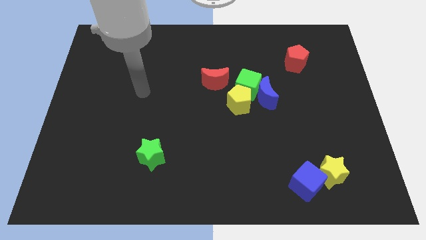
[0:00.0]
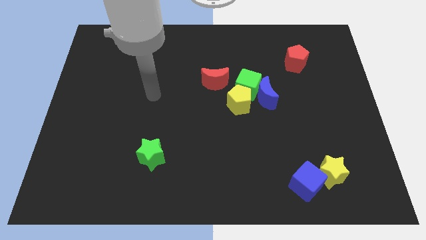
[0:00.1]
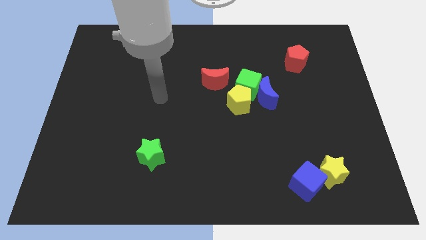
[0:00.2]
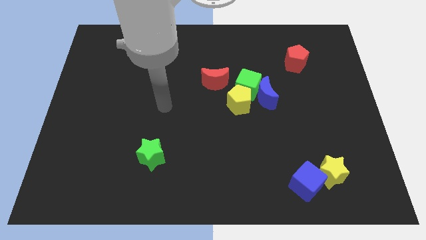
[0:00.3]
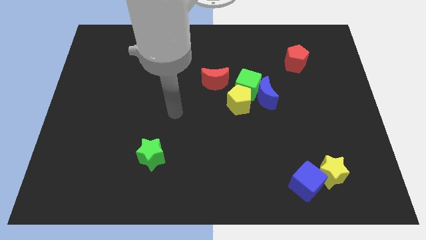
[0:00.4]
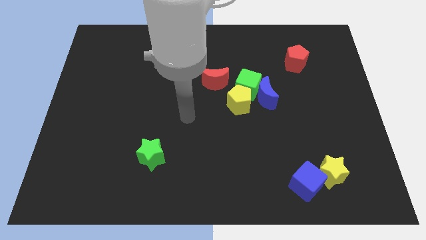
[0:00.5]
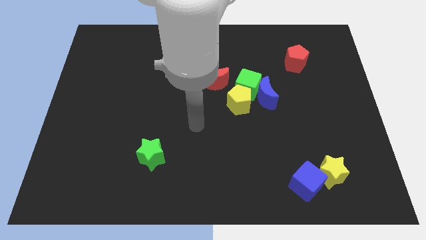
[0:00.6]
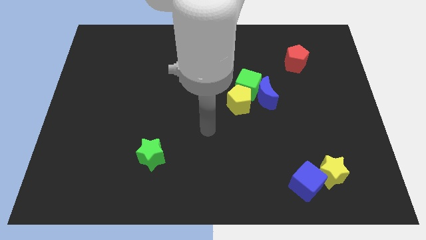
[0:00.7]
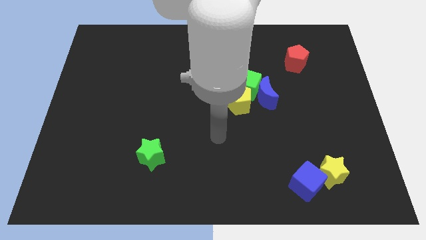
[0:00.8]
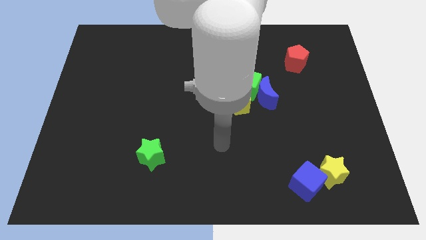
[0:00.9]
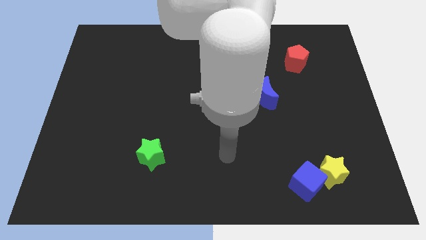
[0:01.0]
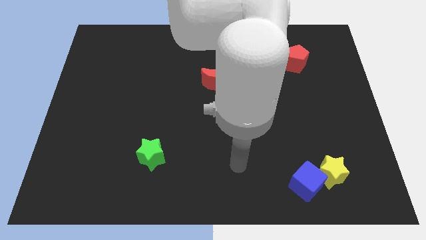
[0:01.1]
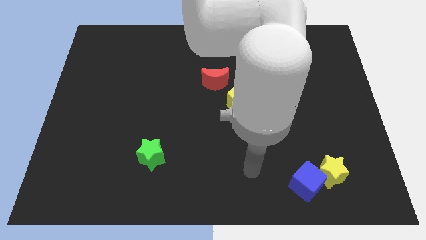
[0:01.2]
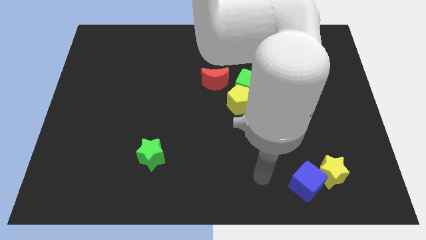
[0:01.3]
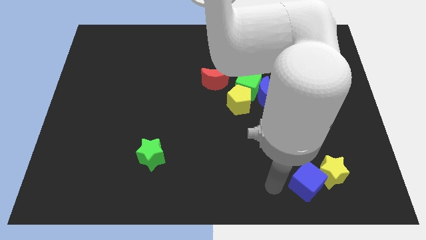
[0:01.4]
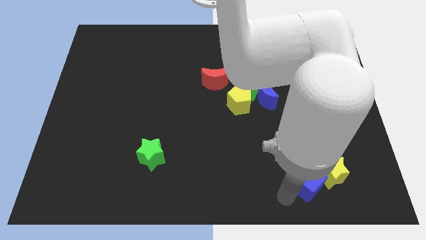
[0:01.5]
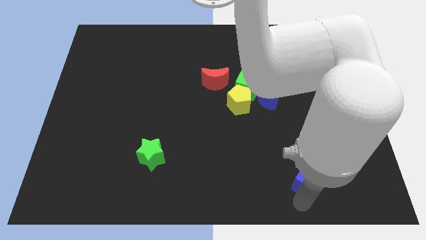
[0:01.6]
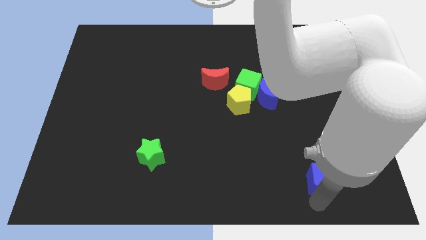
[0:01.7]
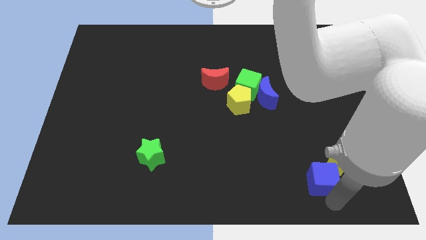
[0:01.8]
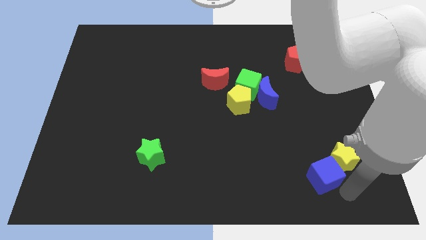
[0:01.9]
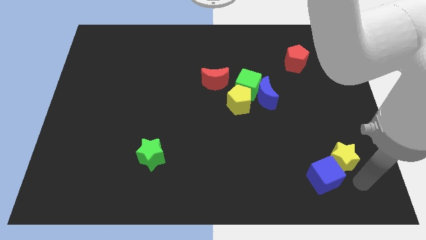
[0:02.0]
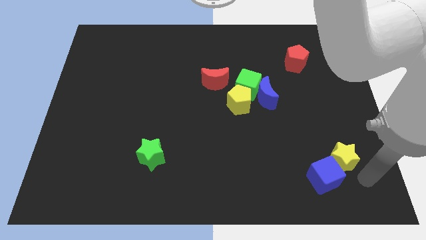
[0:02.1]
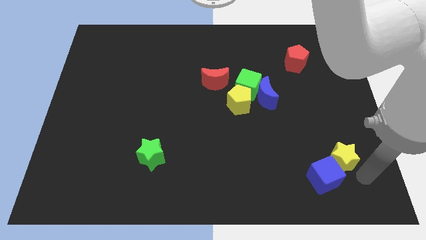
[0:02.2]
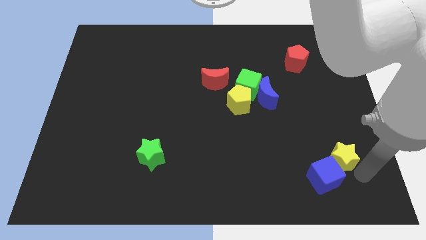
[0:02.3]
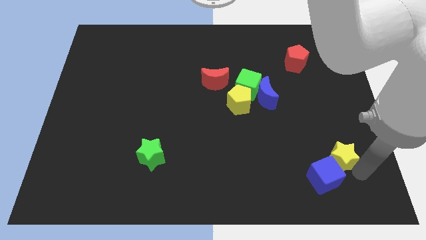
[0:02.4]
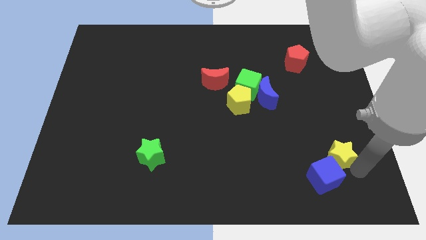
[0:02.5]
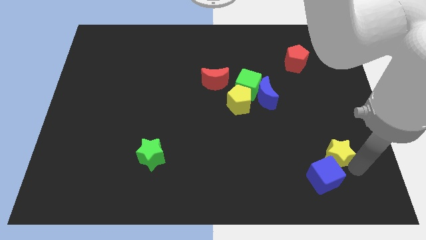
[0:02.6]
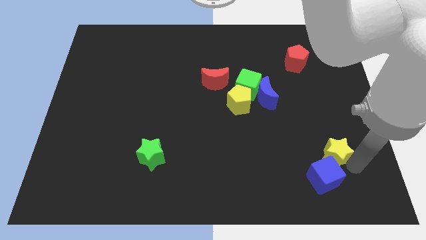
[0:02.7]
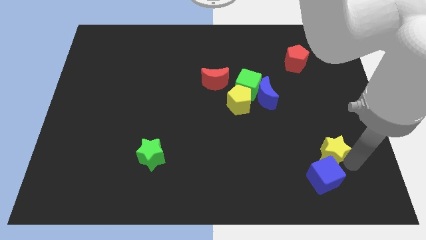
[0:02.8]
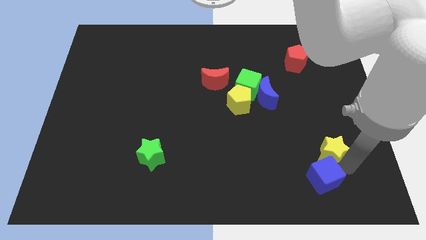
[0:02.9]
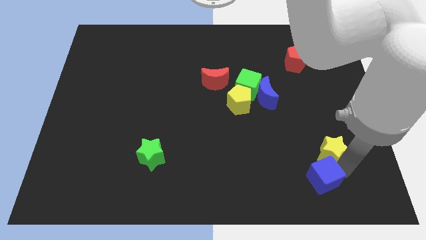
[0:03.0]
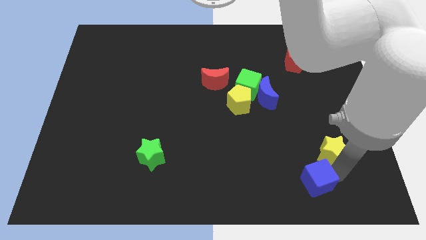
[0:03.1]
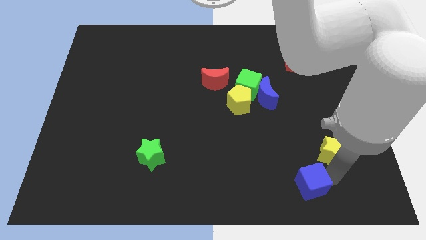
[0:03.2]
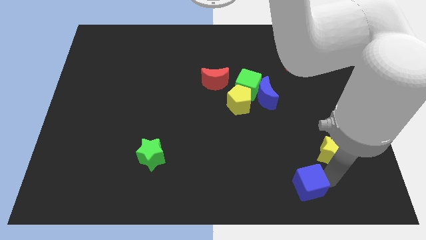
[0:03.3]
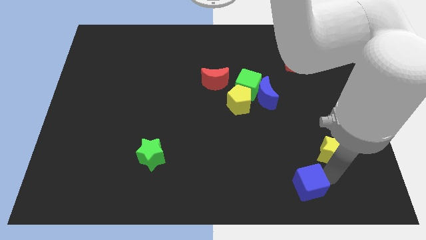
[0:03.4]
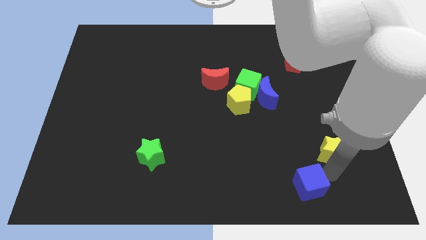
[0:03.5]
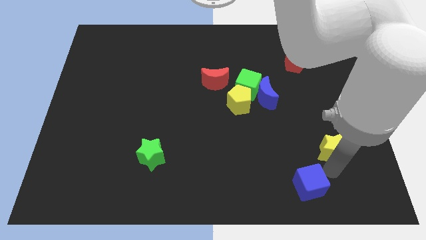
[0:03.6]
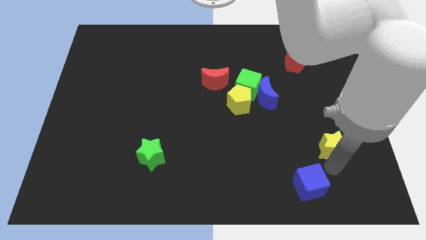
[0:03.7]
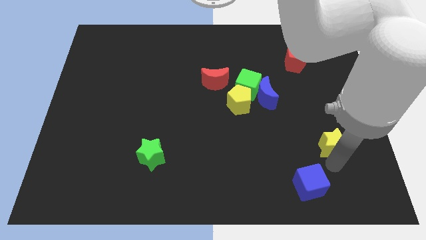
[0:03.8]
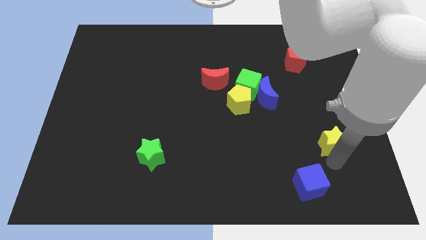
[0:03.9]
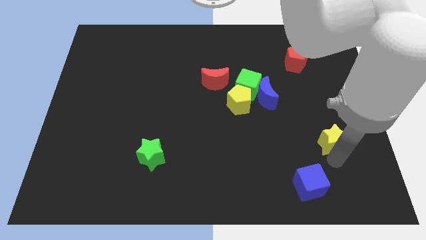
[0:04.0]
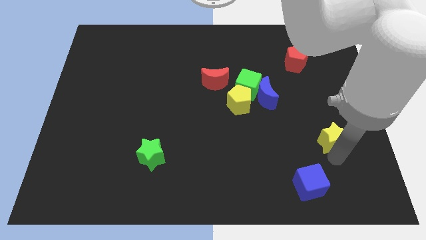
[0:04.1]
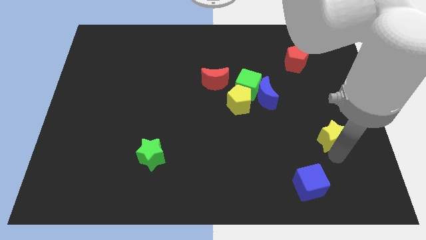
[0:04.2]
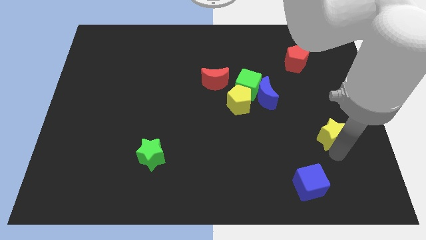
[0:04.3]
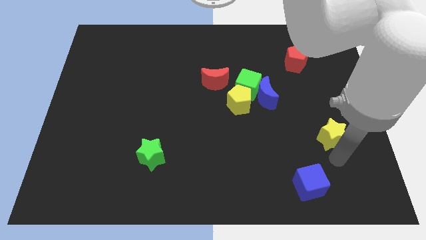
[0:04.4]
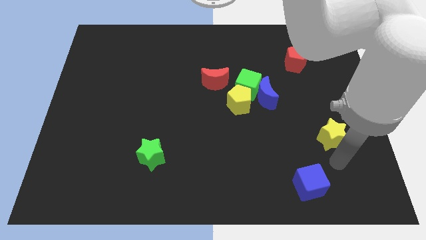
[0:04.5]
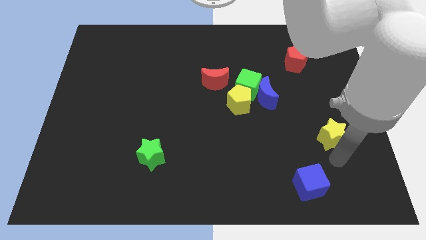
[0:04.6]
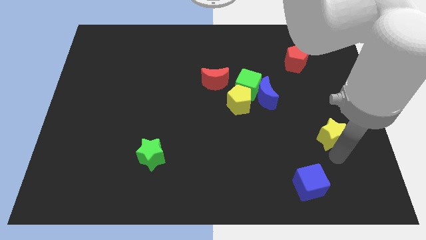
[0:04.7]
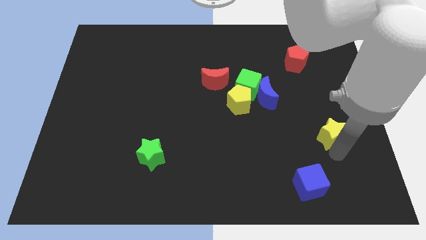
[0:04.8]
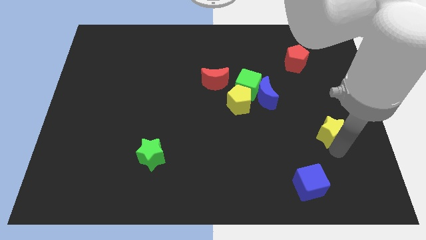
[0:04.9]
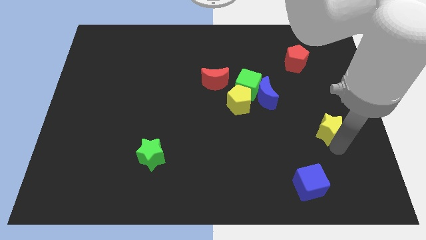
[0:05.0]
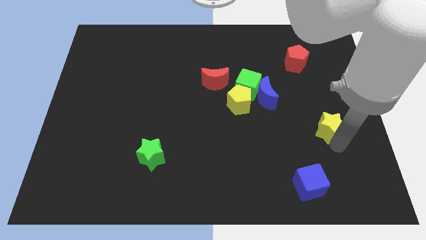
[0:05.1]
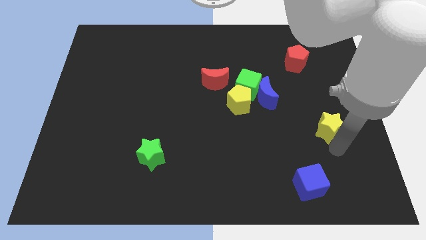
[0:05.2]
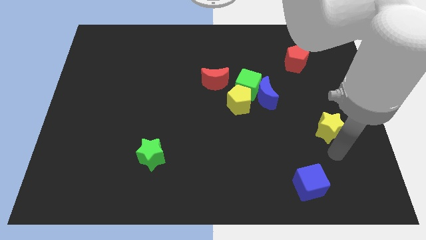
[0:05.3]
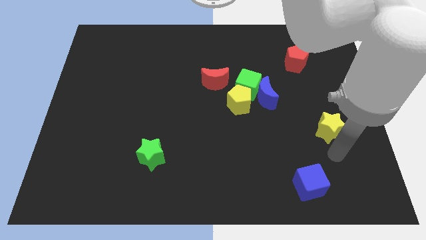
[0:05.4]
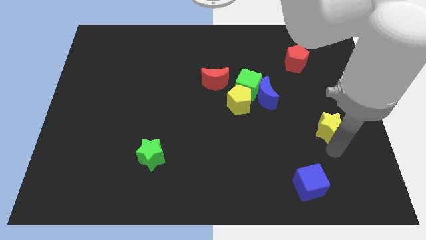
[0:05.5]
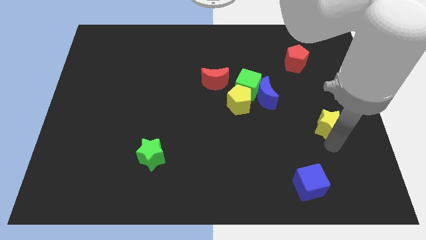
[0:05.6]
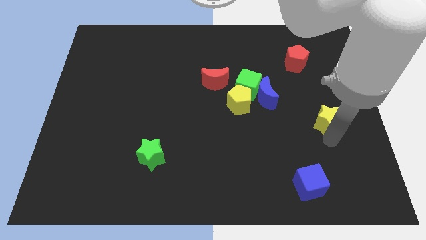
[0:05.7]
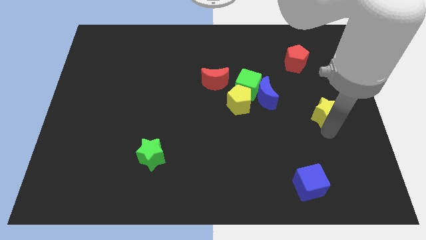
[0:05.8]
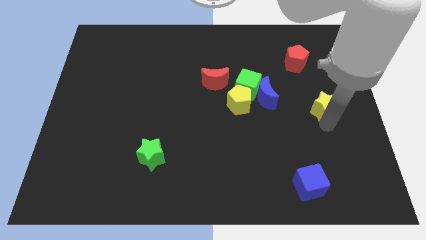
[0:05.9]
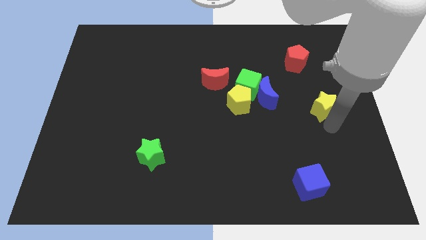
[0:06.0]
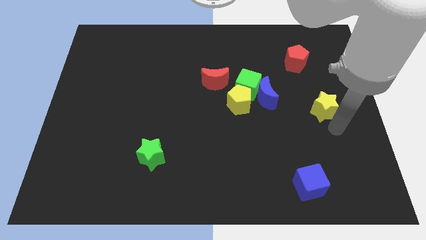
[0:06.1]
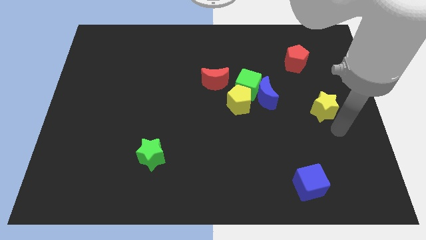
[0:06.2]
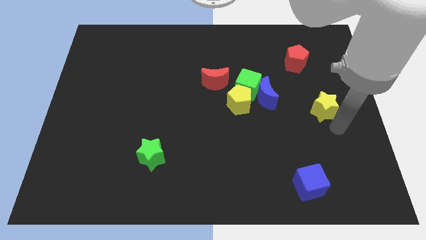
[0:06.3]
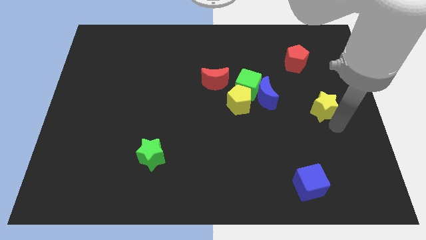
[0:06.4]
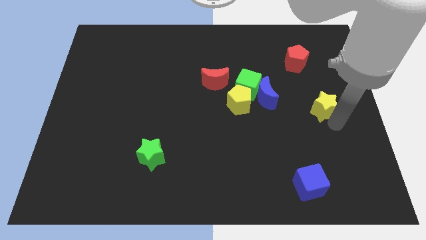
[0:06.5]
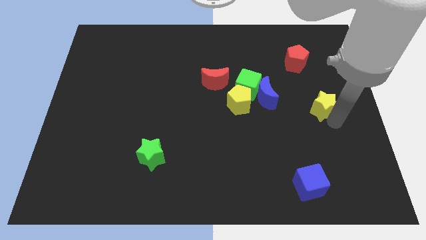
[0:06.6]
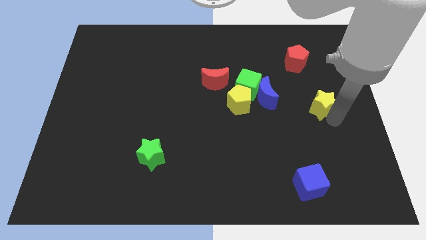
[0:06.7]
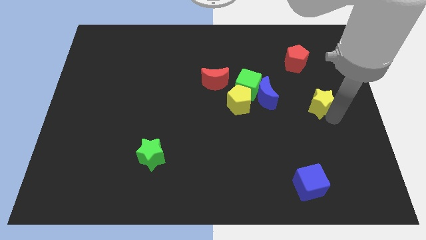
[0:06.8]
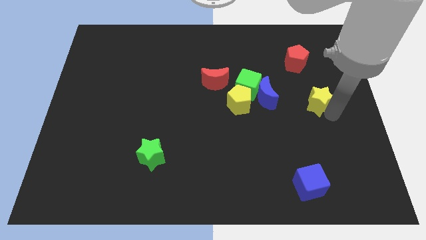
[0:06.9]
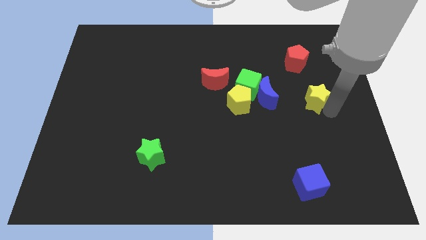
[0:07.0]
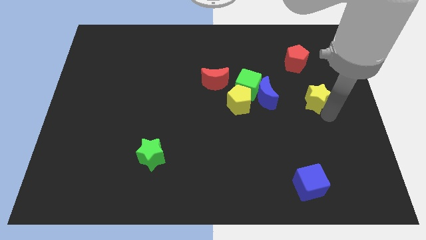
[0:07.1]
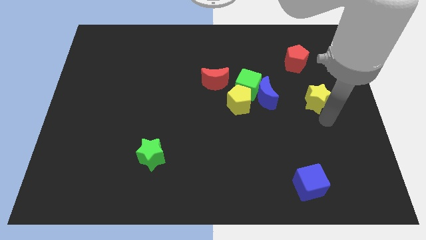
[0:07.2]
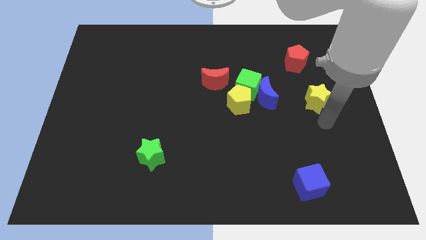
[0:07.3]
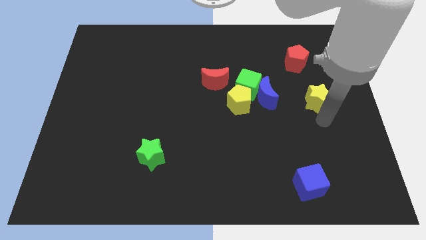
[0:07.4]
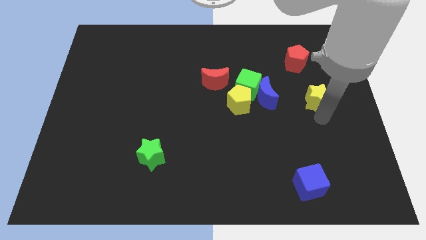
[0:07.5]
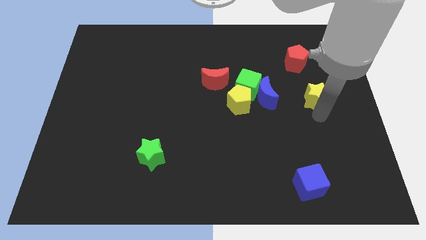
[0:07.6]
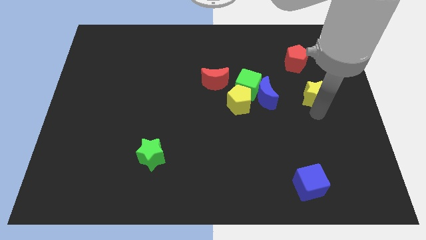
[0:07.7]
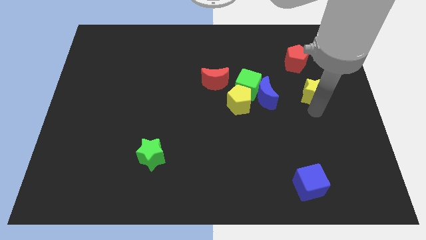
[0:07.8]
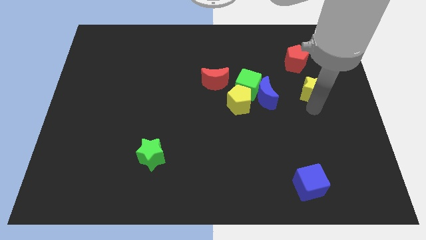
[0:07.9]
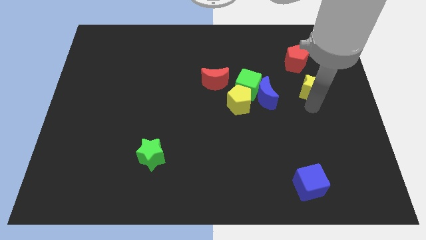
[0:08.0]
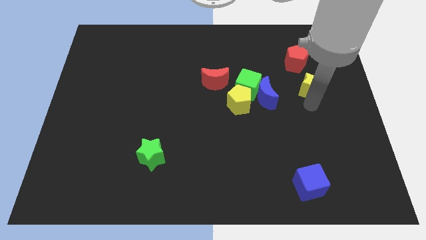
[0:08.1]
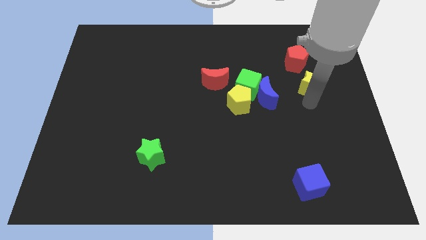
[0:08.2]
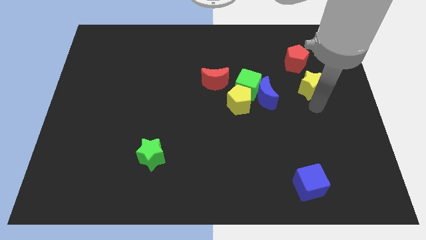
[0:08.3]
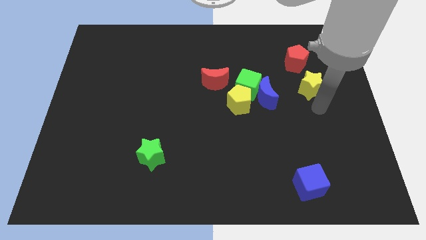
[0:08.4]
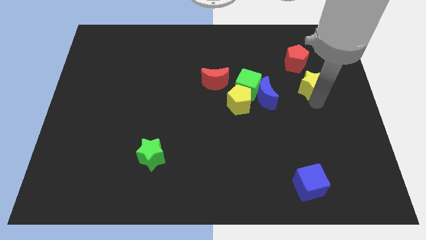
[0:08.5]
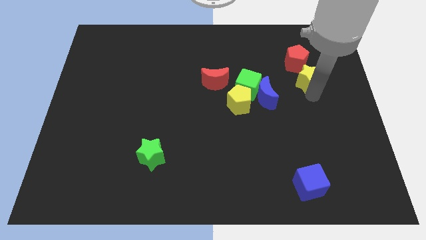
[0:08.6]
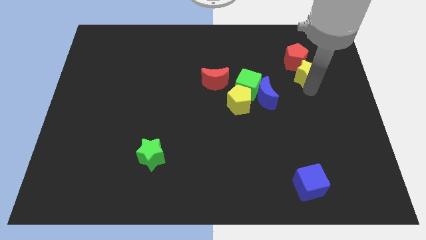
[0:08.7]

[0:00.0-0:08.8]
push the yellow star to the red pentagon
